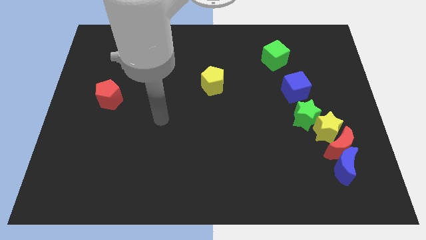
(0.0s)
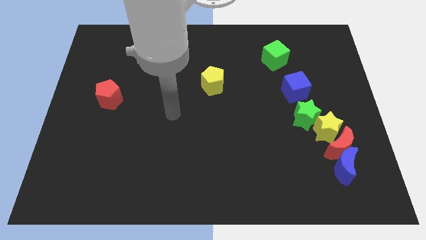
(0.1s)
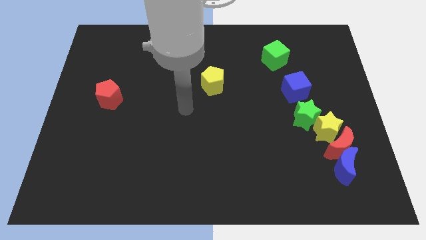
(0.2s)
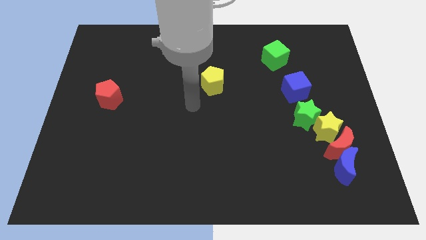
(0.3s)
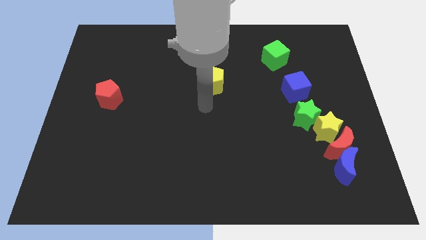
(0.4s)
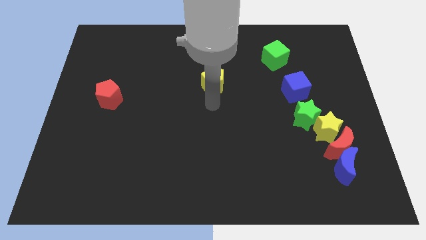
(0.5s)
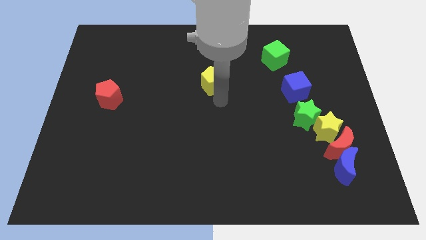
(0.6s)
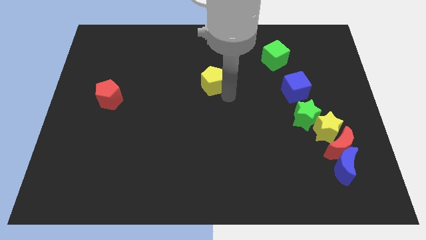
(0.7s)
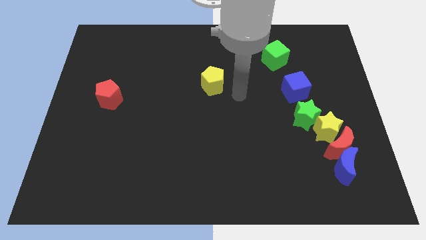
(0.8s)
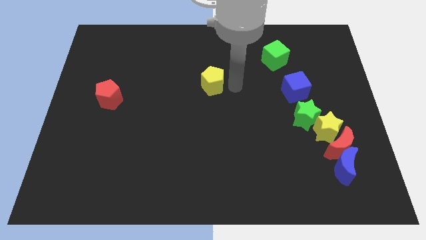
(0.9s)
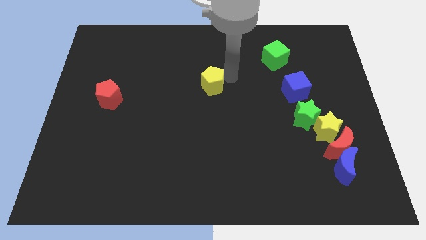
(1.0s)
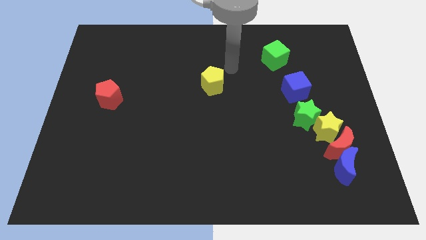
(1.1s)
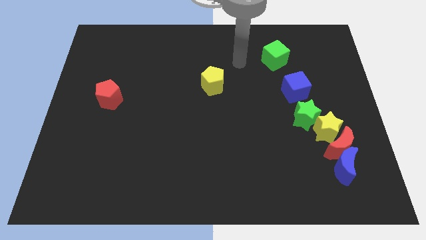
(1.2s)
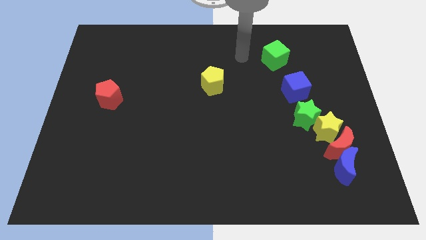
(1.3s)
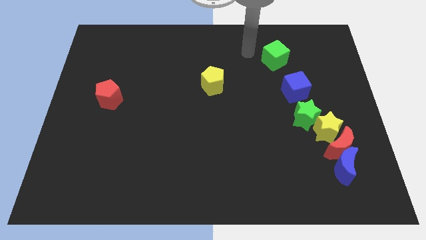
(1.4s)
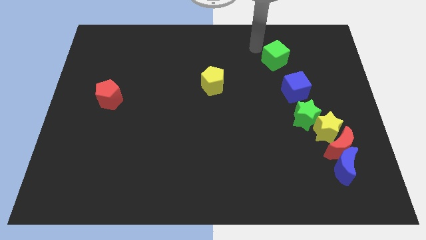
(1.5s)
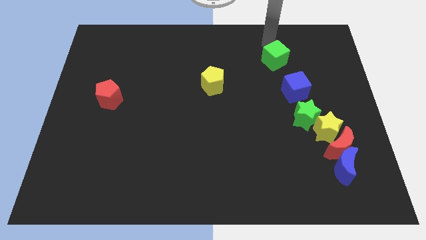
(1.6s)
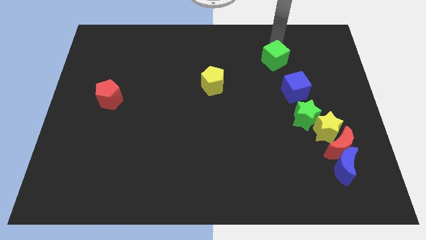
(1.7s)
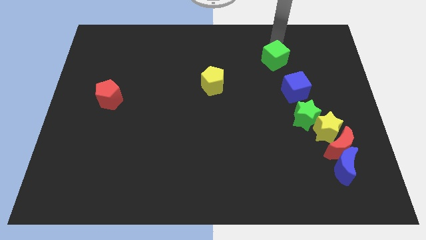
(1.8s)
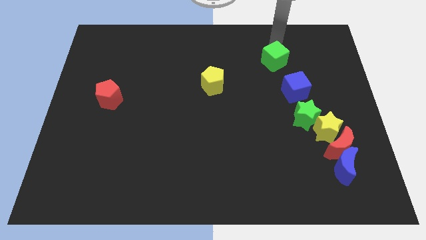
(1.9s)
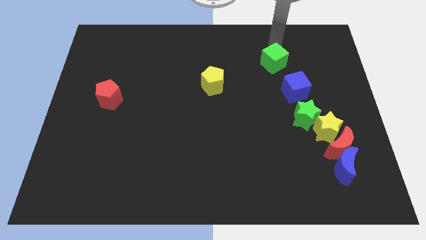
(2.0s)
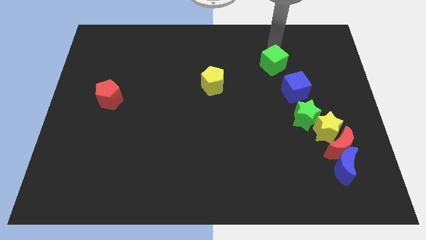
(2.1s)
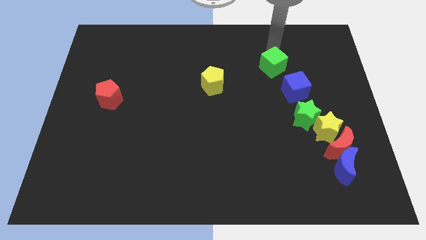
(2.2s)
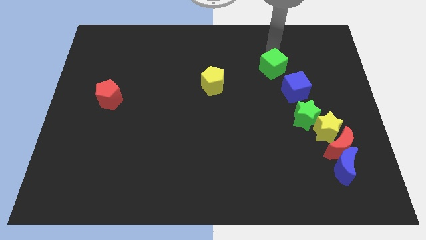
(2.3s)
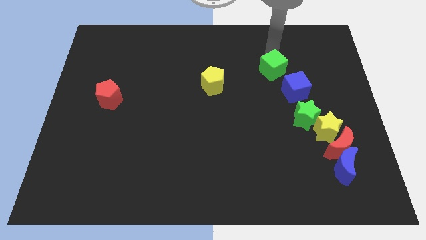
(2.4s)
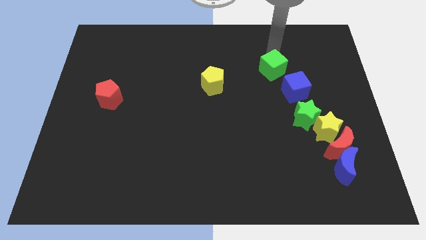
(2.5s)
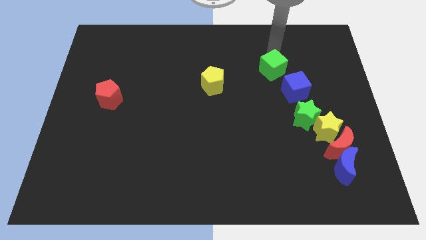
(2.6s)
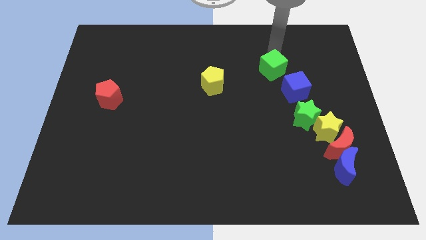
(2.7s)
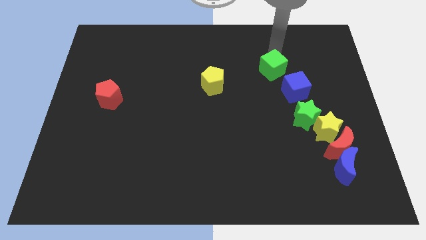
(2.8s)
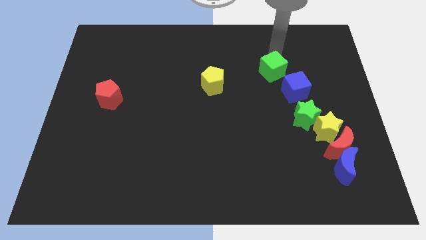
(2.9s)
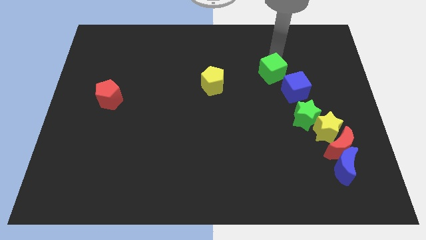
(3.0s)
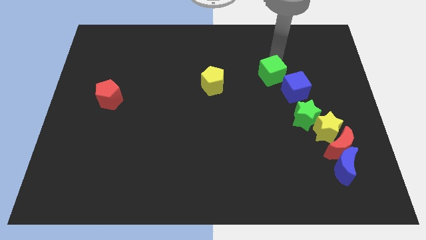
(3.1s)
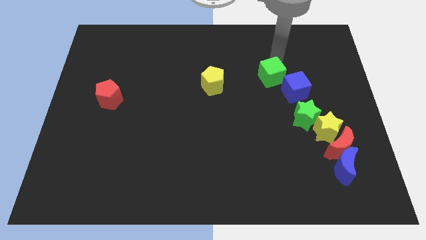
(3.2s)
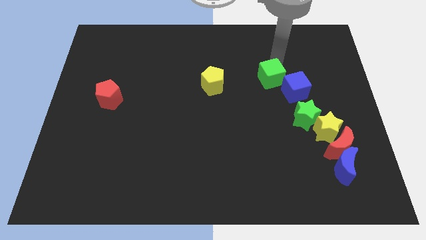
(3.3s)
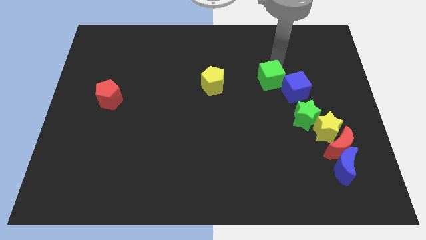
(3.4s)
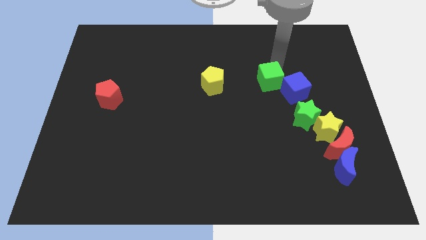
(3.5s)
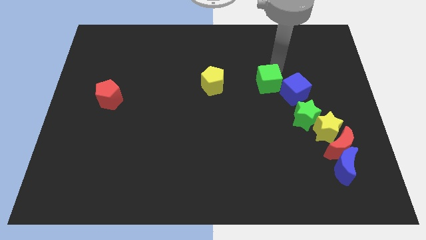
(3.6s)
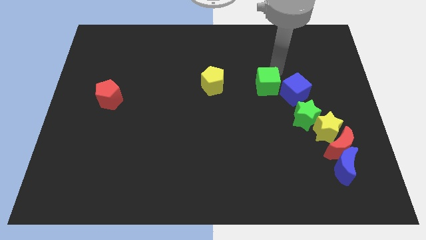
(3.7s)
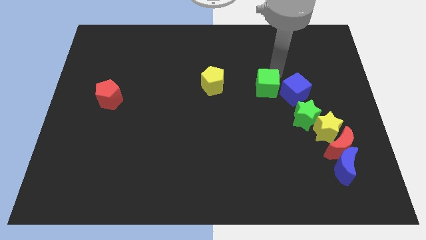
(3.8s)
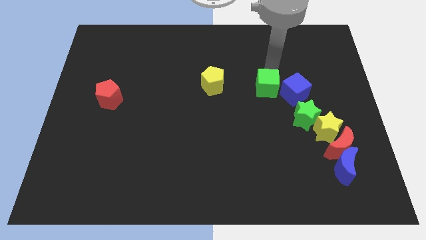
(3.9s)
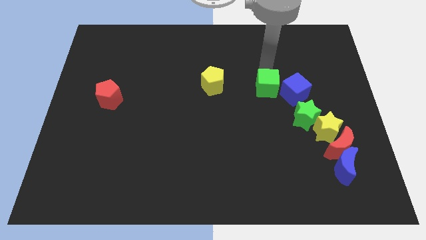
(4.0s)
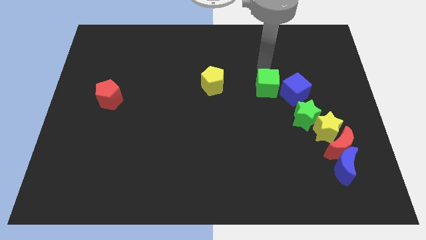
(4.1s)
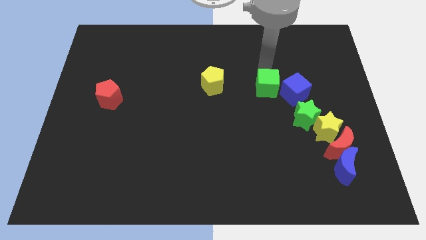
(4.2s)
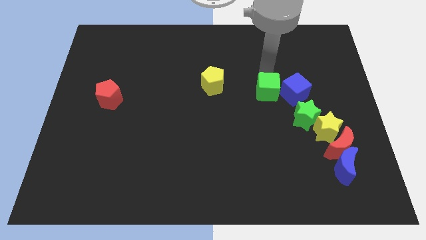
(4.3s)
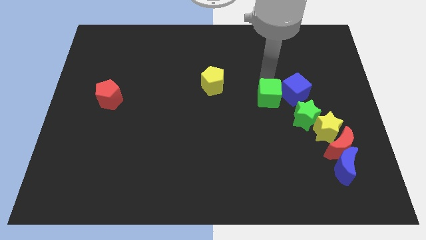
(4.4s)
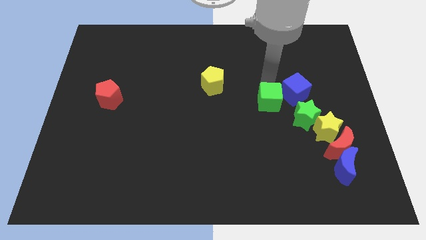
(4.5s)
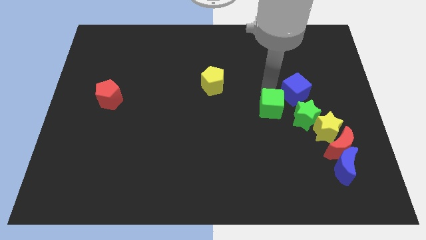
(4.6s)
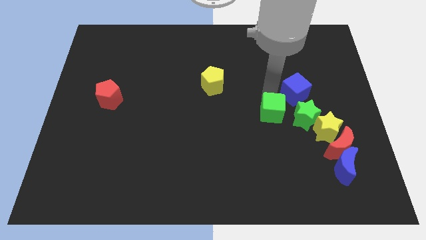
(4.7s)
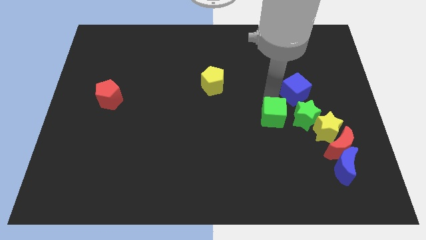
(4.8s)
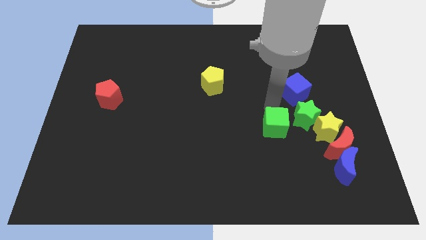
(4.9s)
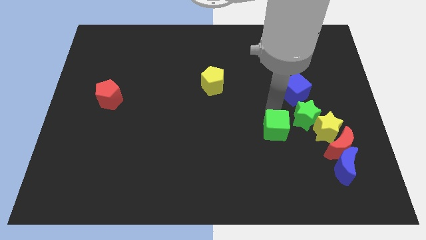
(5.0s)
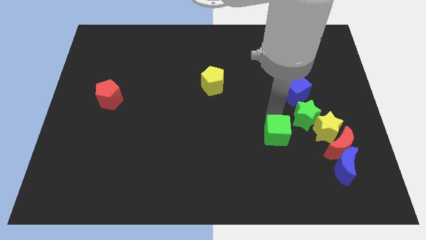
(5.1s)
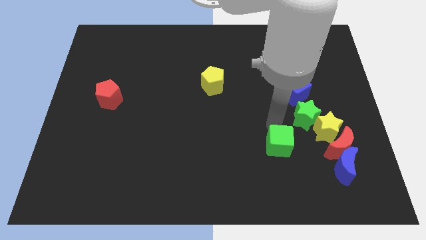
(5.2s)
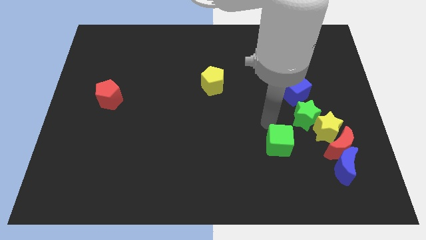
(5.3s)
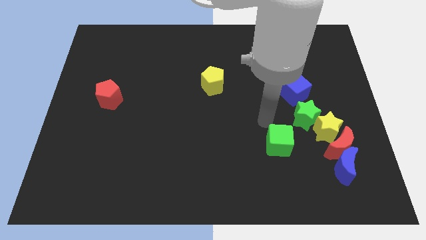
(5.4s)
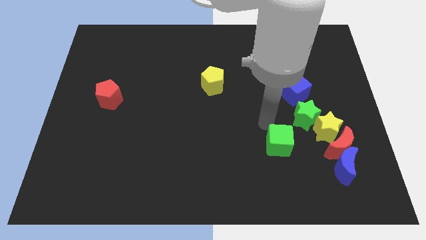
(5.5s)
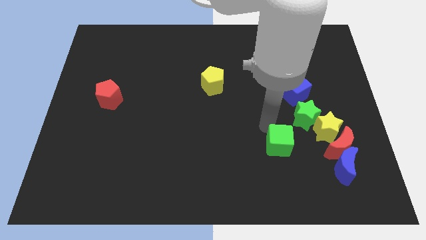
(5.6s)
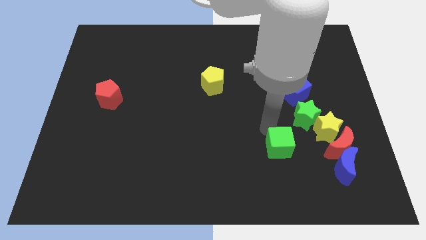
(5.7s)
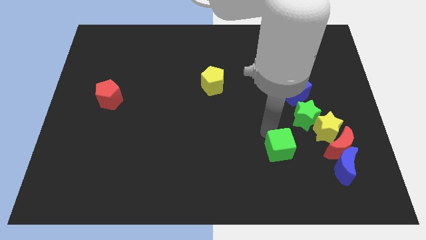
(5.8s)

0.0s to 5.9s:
put the green cube to the left of the blue moon

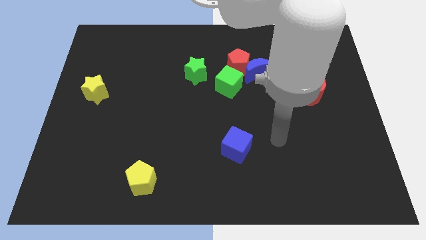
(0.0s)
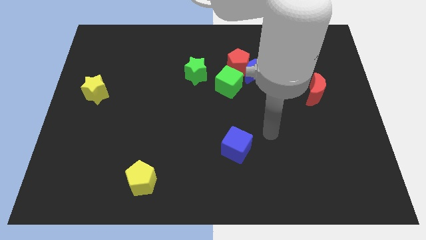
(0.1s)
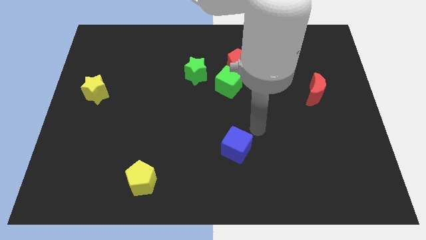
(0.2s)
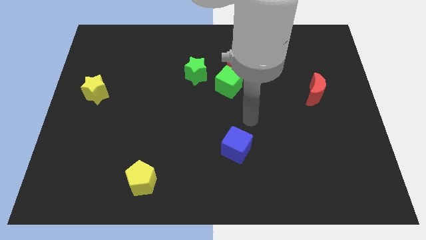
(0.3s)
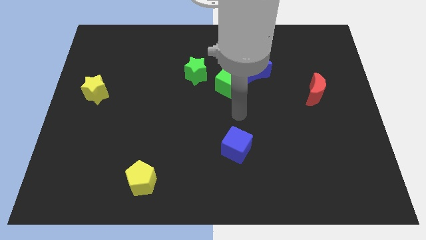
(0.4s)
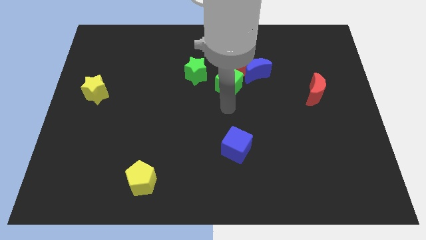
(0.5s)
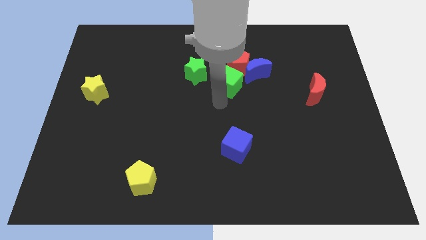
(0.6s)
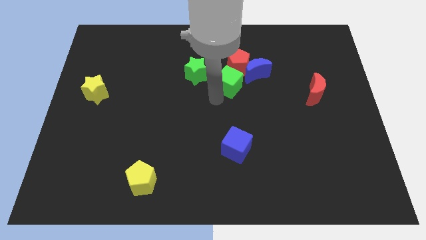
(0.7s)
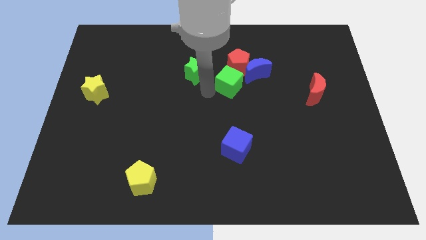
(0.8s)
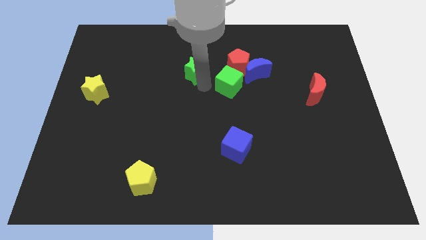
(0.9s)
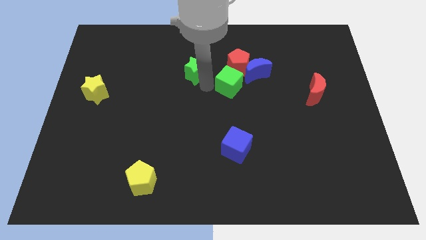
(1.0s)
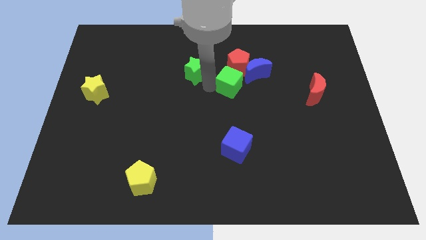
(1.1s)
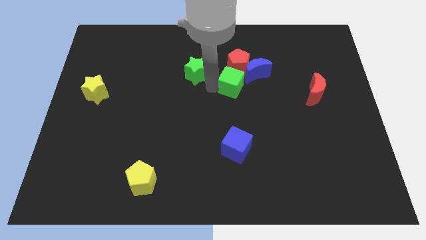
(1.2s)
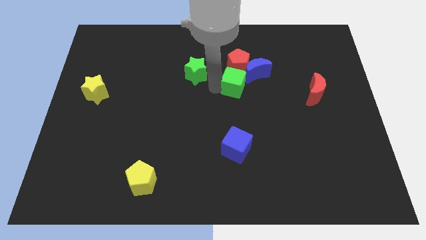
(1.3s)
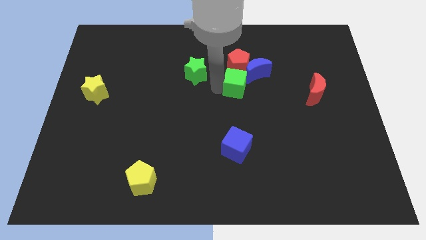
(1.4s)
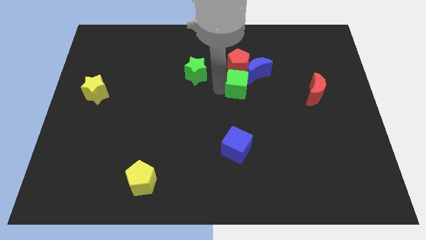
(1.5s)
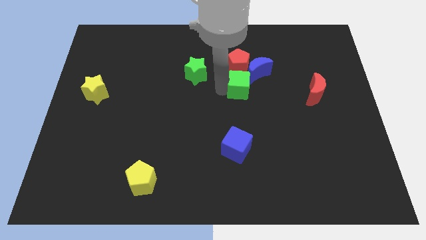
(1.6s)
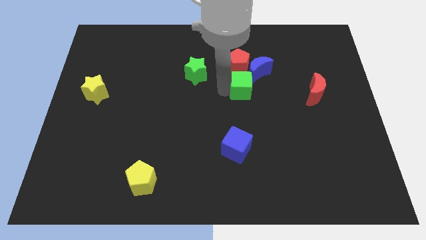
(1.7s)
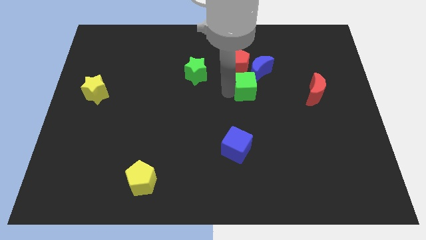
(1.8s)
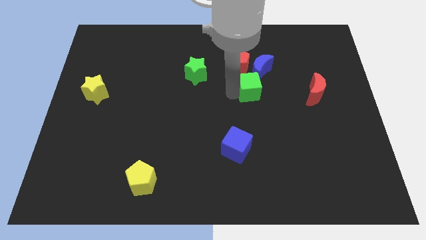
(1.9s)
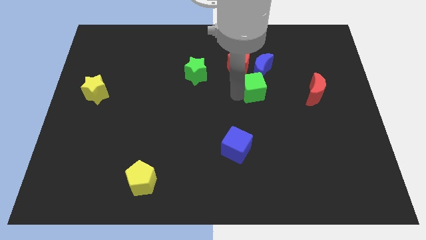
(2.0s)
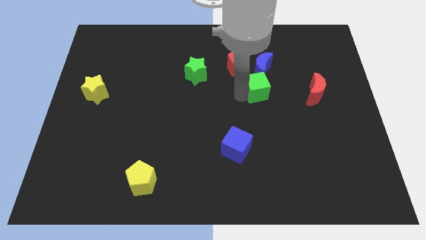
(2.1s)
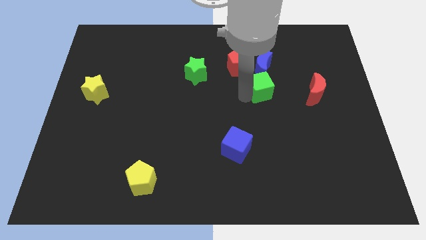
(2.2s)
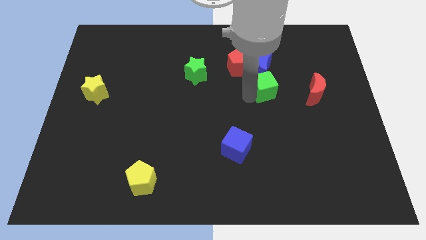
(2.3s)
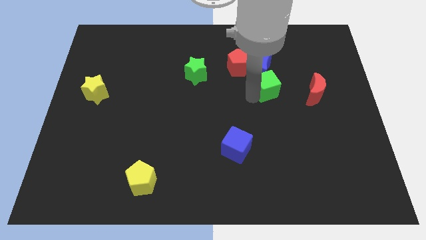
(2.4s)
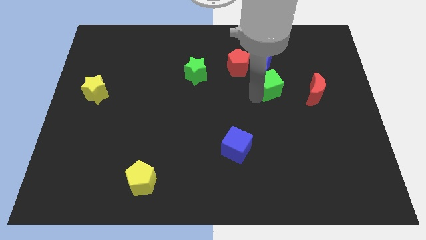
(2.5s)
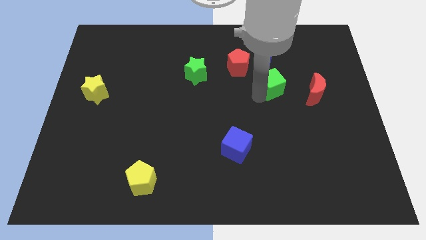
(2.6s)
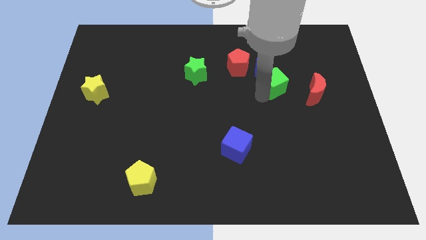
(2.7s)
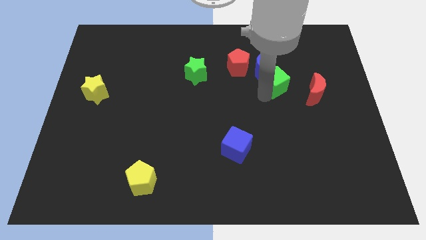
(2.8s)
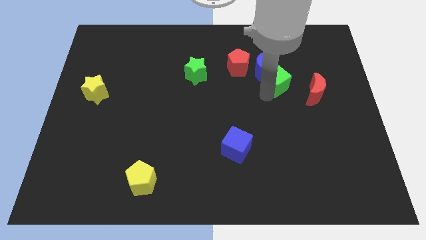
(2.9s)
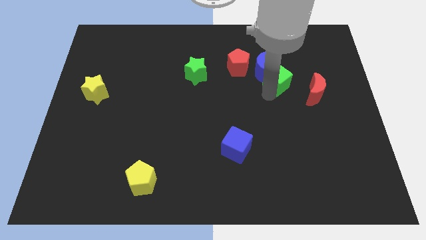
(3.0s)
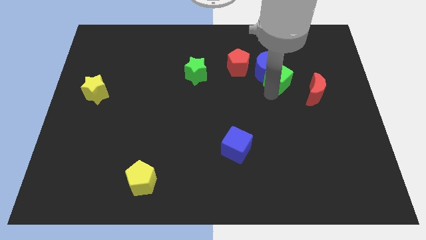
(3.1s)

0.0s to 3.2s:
move the green cube just right of the blue moon
